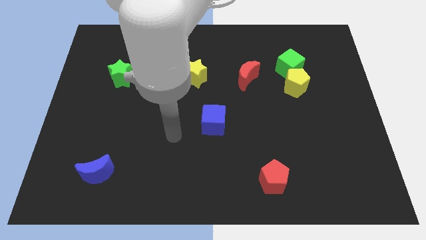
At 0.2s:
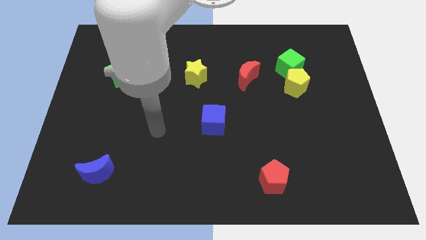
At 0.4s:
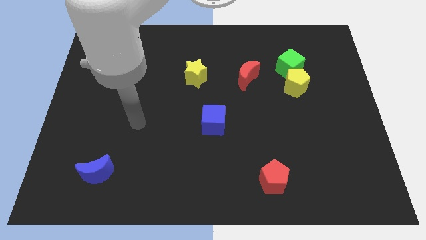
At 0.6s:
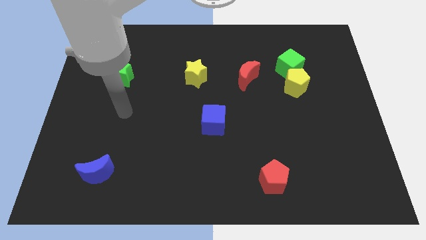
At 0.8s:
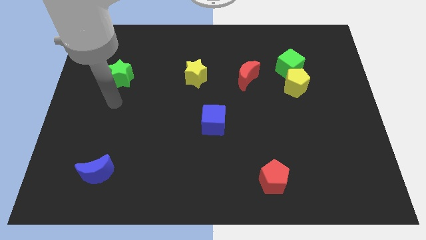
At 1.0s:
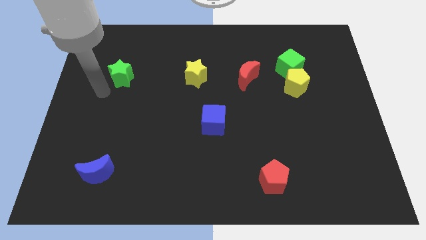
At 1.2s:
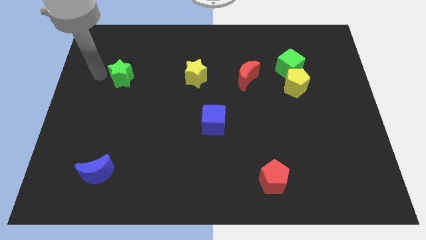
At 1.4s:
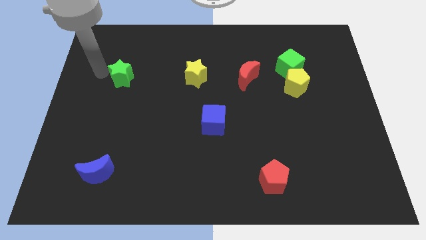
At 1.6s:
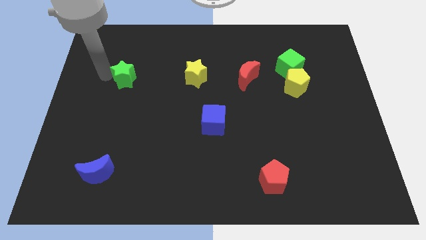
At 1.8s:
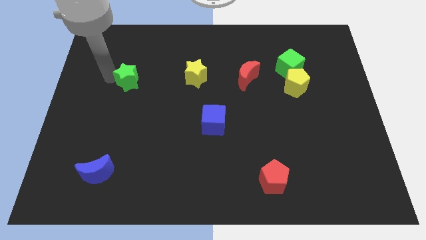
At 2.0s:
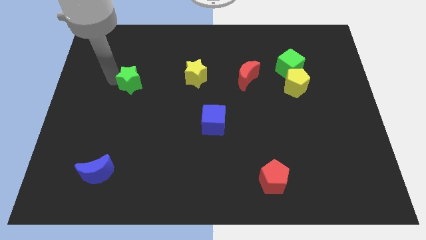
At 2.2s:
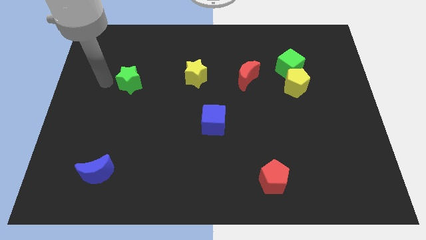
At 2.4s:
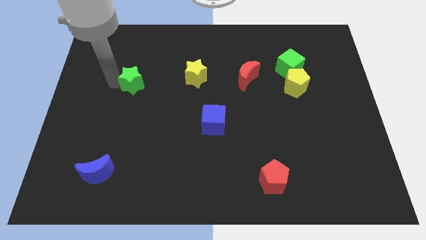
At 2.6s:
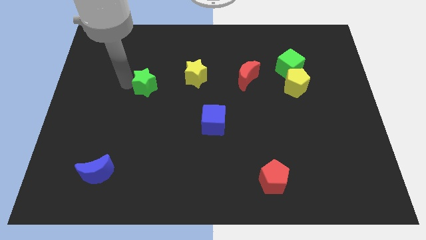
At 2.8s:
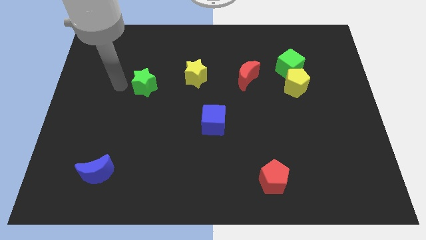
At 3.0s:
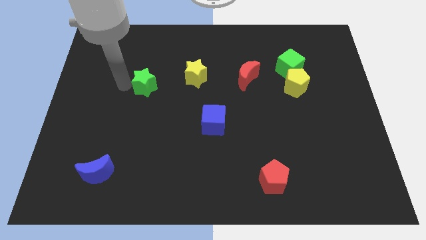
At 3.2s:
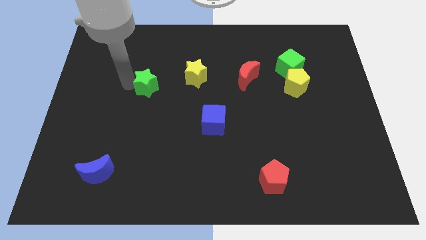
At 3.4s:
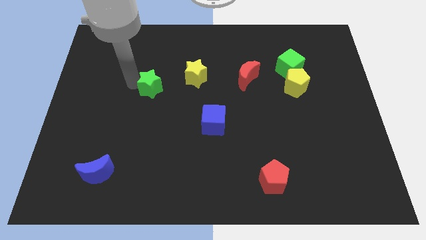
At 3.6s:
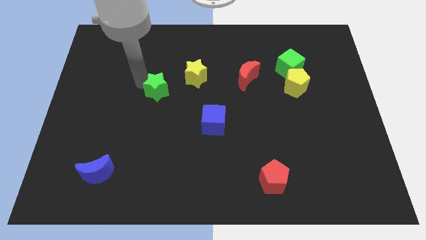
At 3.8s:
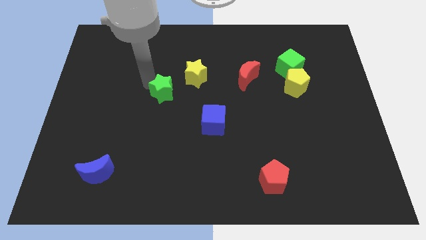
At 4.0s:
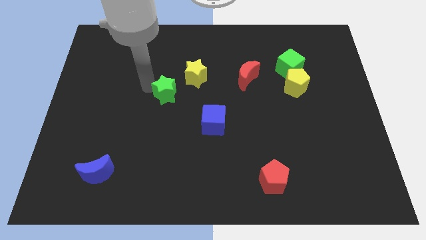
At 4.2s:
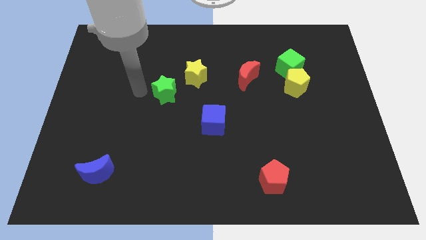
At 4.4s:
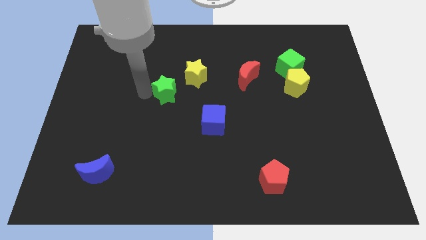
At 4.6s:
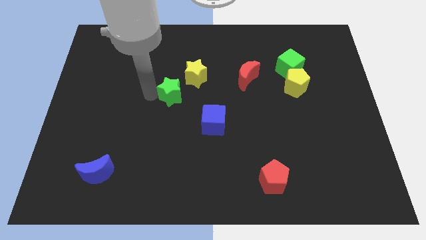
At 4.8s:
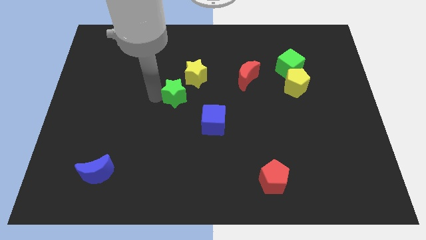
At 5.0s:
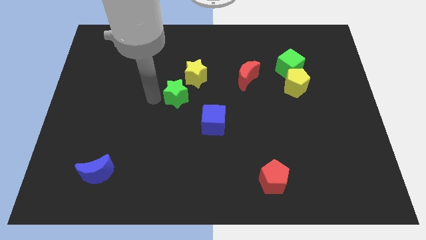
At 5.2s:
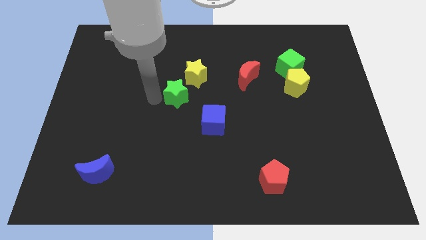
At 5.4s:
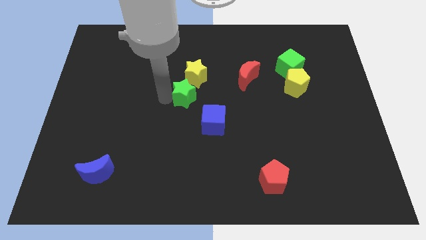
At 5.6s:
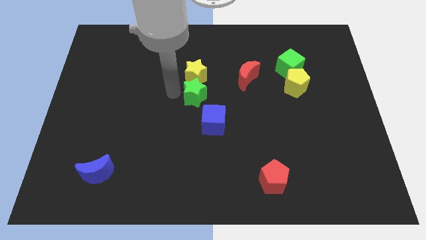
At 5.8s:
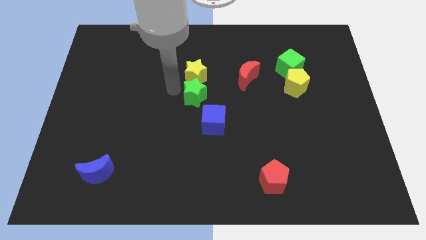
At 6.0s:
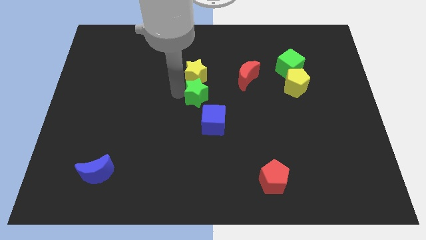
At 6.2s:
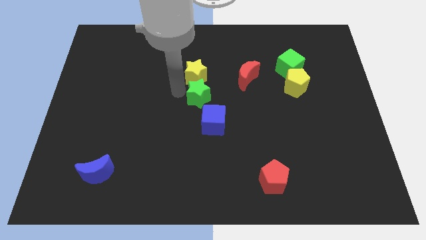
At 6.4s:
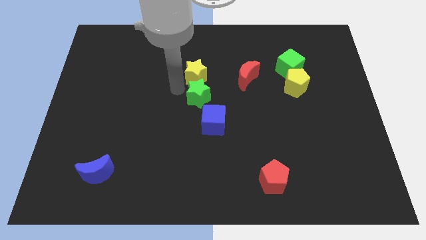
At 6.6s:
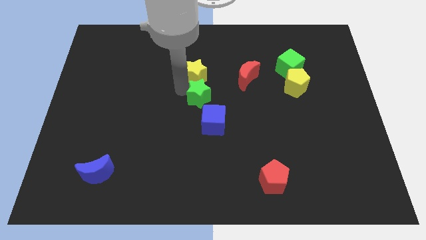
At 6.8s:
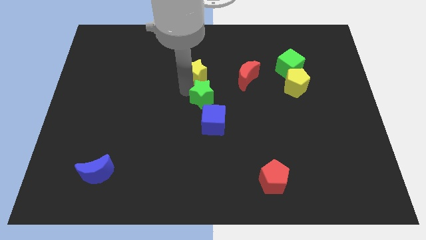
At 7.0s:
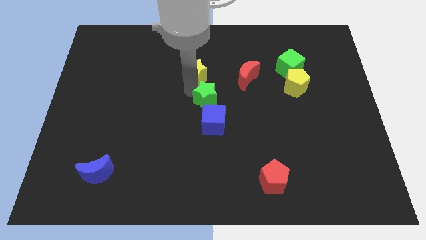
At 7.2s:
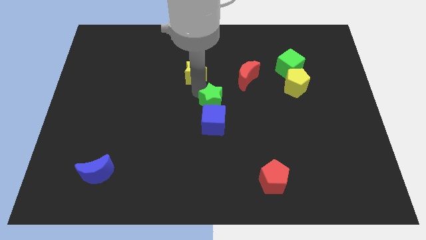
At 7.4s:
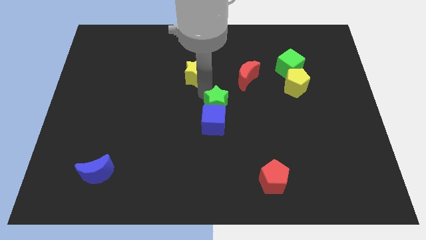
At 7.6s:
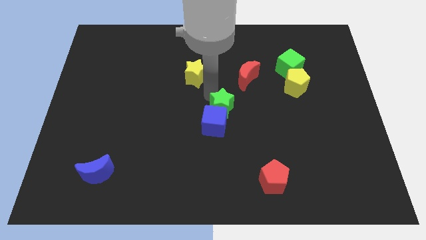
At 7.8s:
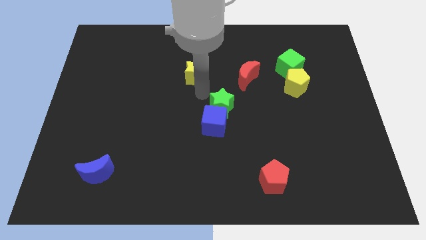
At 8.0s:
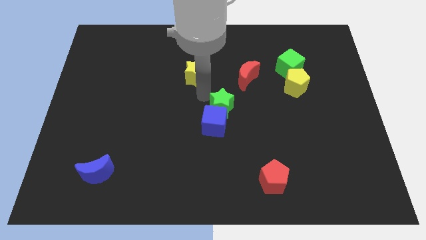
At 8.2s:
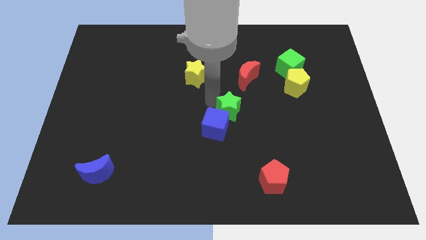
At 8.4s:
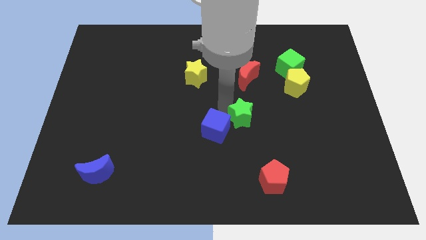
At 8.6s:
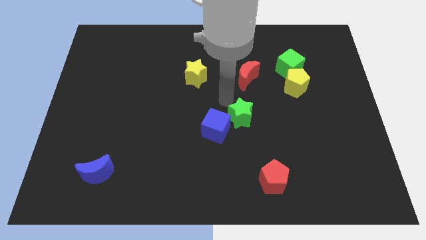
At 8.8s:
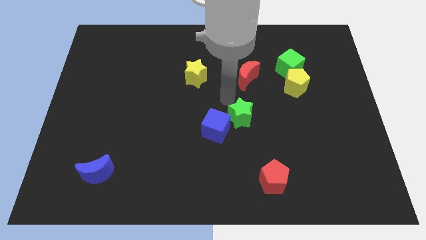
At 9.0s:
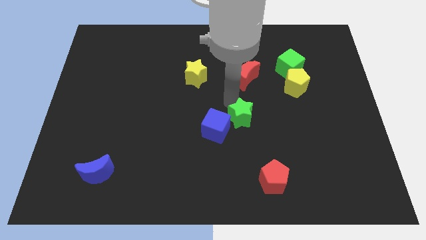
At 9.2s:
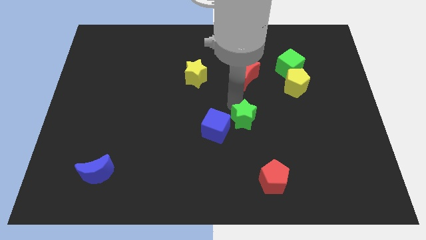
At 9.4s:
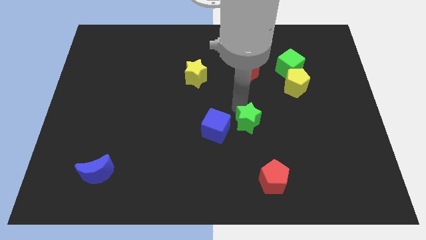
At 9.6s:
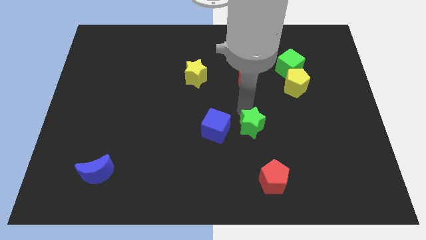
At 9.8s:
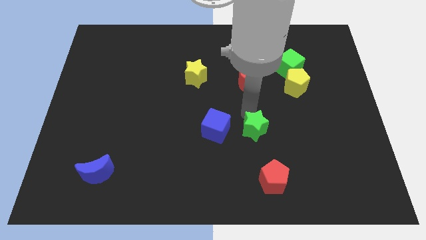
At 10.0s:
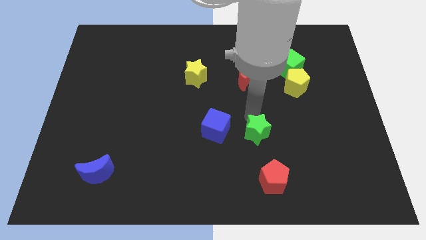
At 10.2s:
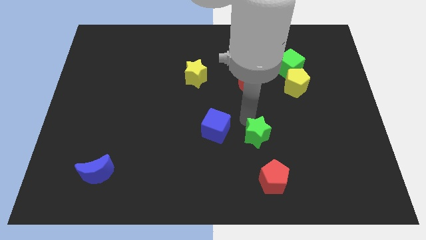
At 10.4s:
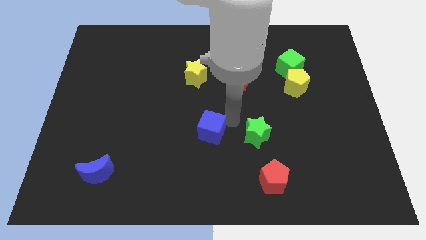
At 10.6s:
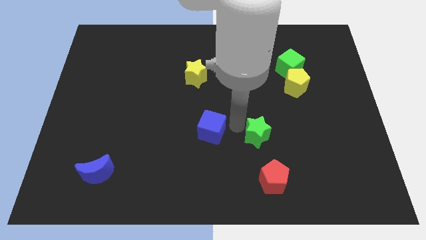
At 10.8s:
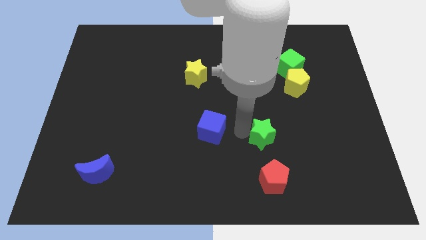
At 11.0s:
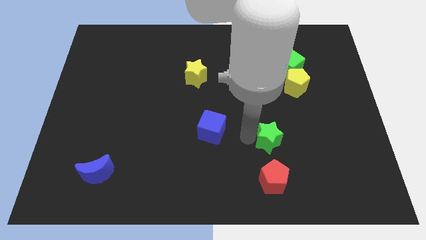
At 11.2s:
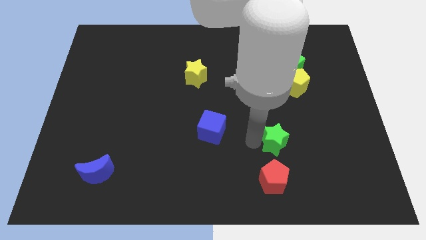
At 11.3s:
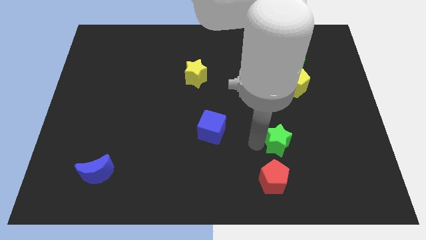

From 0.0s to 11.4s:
put the green star to the top right of the red pentagon

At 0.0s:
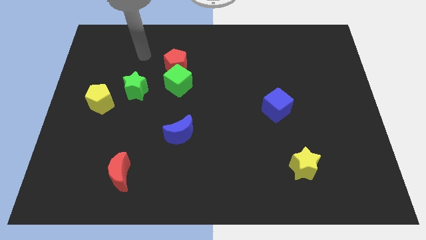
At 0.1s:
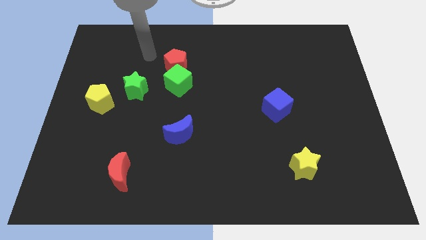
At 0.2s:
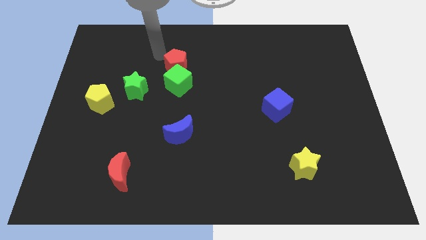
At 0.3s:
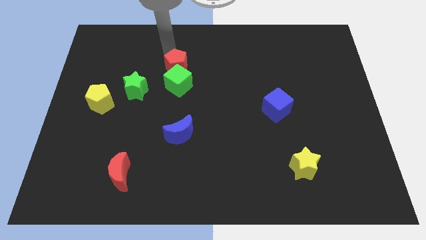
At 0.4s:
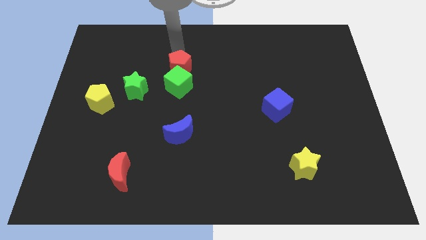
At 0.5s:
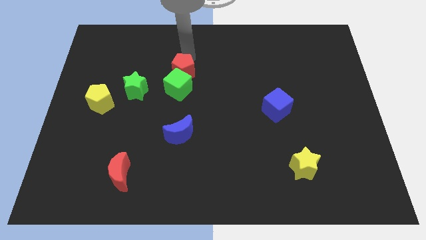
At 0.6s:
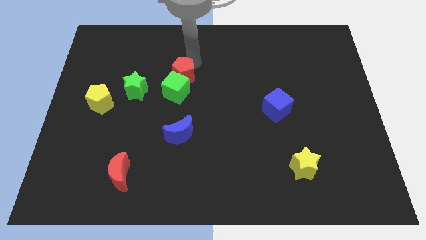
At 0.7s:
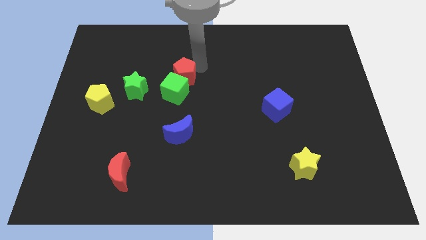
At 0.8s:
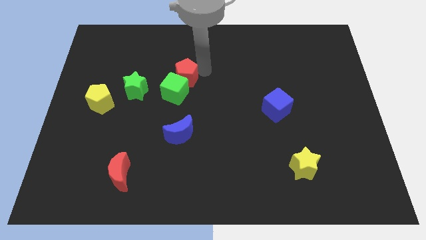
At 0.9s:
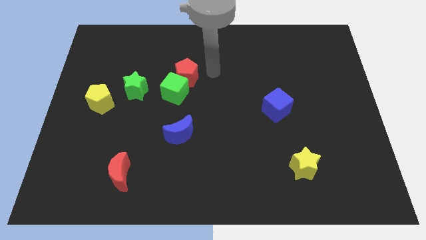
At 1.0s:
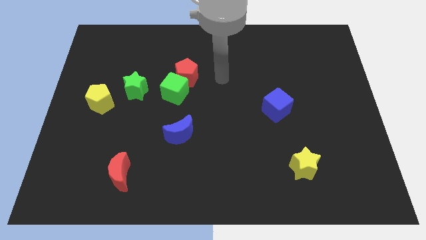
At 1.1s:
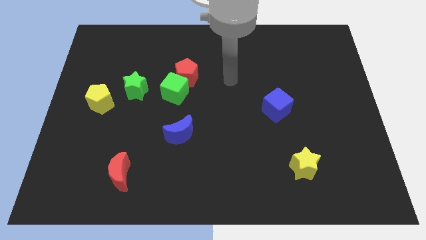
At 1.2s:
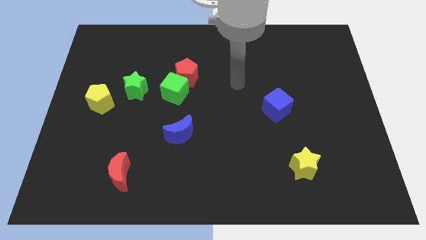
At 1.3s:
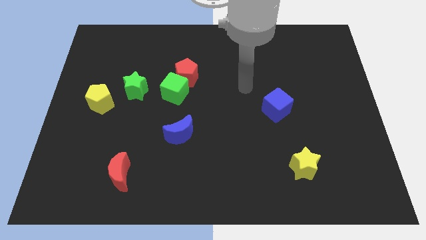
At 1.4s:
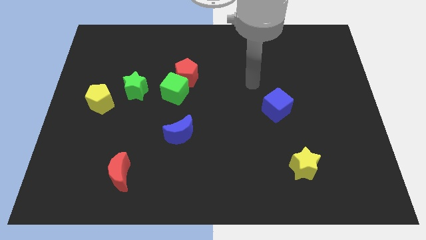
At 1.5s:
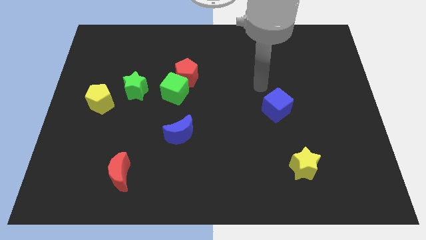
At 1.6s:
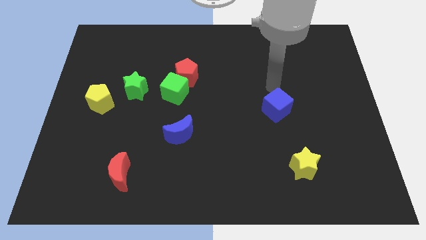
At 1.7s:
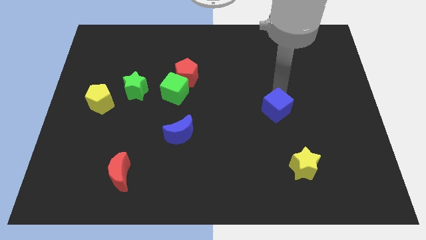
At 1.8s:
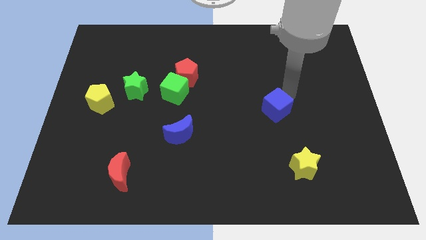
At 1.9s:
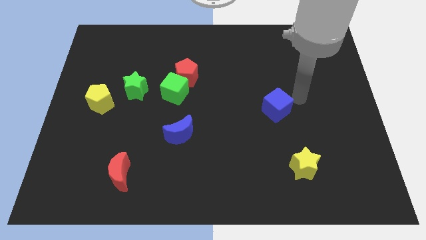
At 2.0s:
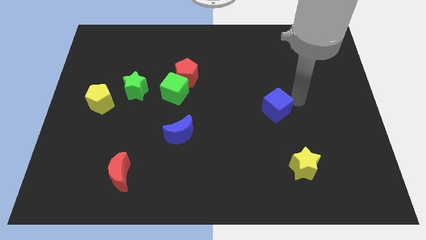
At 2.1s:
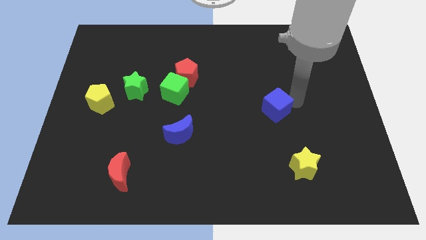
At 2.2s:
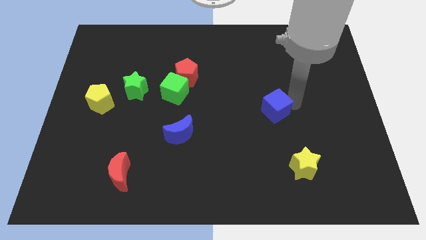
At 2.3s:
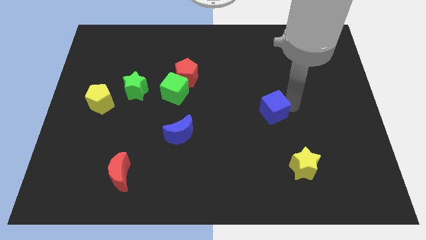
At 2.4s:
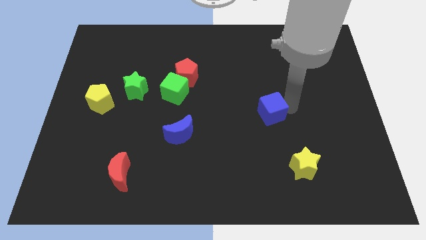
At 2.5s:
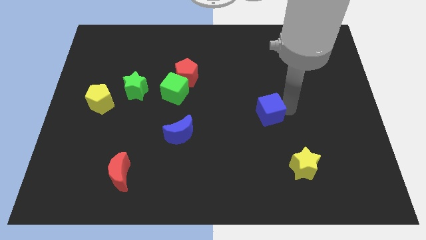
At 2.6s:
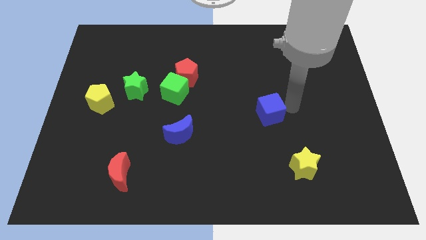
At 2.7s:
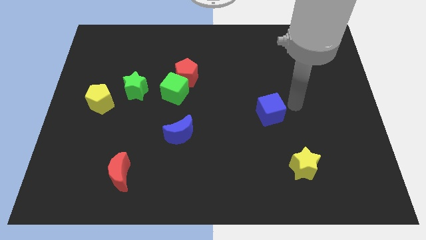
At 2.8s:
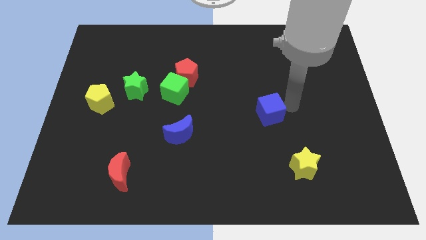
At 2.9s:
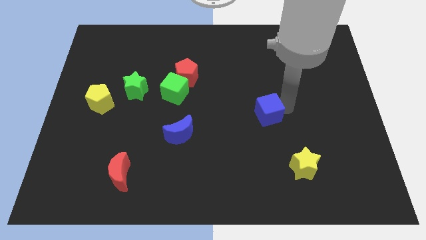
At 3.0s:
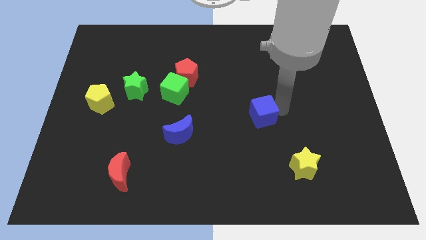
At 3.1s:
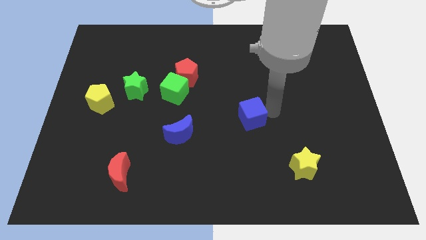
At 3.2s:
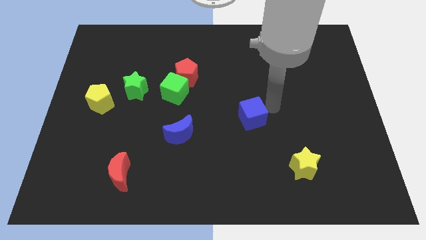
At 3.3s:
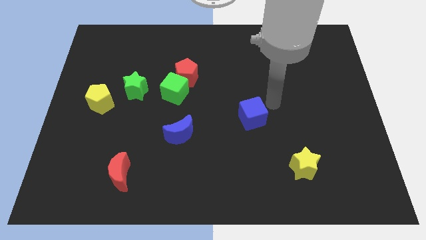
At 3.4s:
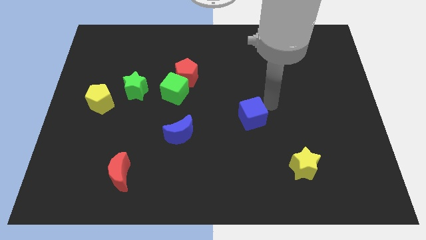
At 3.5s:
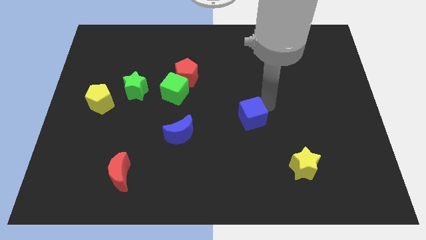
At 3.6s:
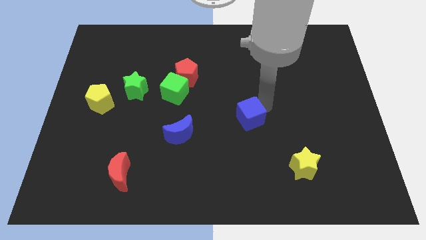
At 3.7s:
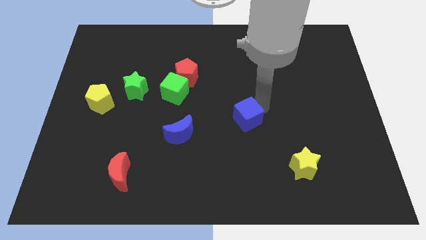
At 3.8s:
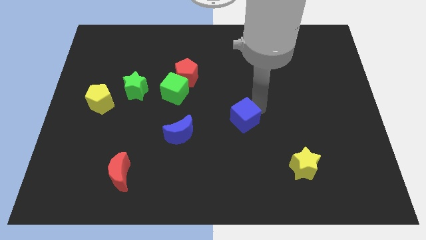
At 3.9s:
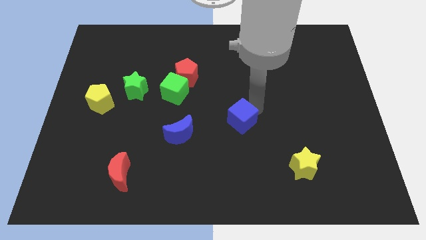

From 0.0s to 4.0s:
slide the blue cube right of the blue moon
